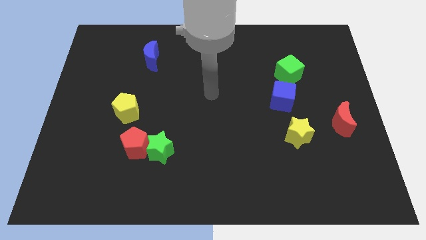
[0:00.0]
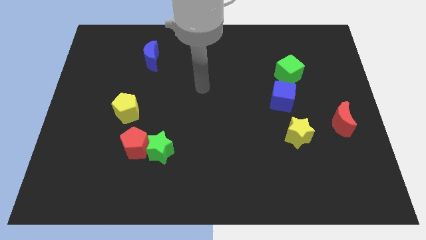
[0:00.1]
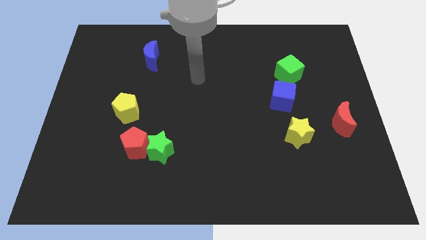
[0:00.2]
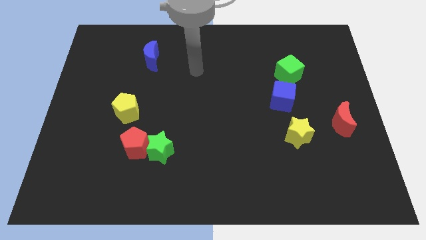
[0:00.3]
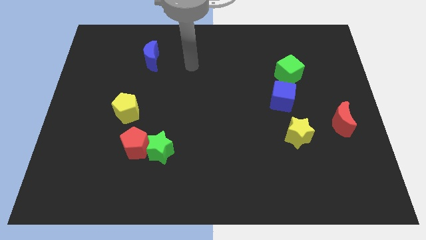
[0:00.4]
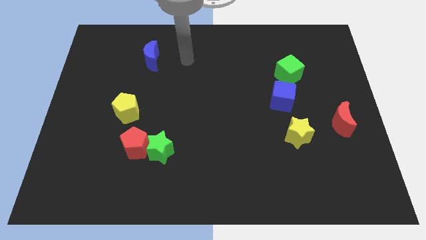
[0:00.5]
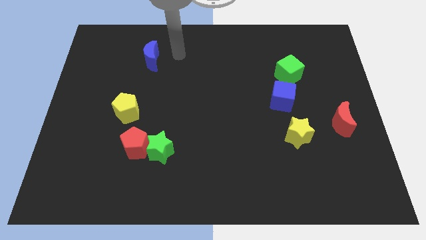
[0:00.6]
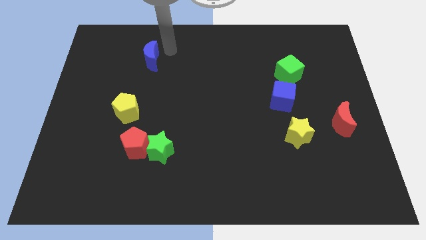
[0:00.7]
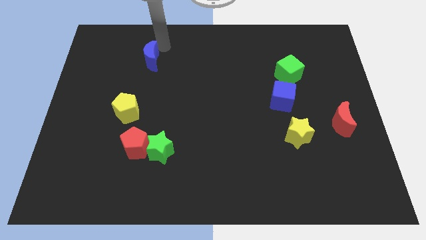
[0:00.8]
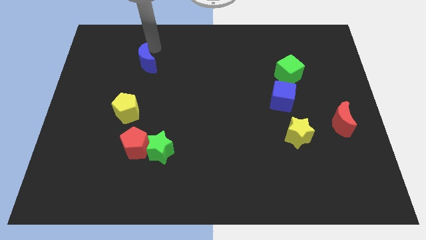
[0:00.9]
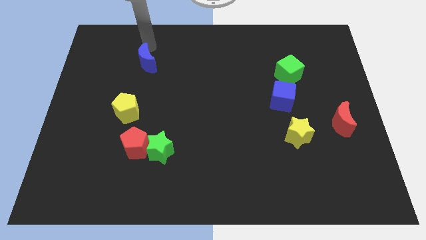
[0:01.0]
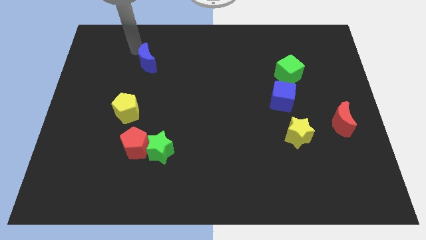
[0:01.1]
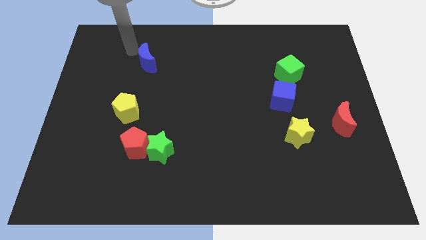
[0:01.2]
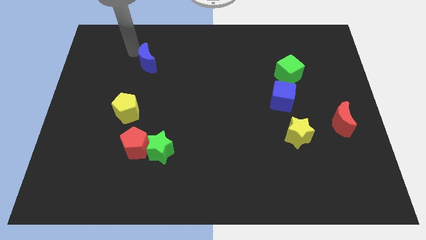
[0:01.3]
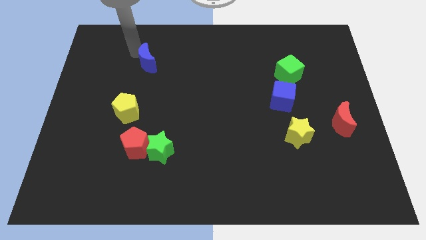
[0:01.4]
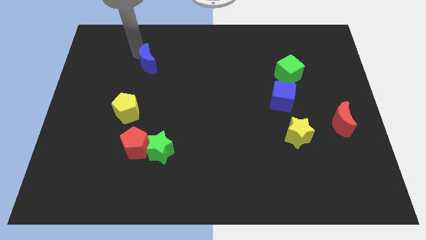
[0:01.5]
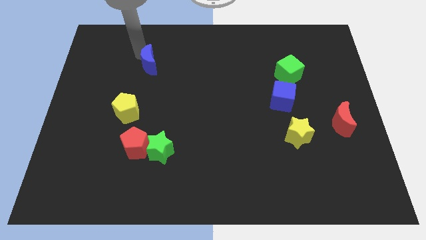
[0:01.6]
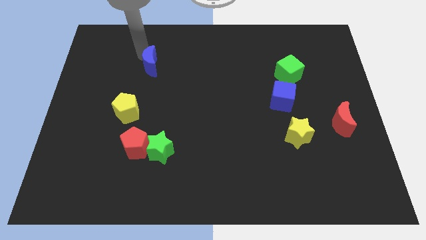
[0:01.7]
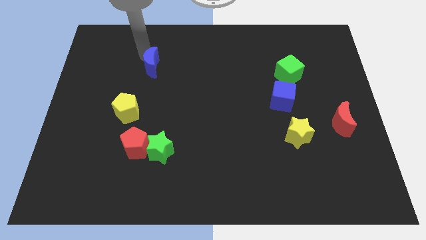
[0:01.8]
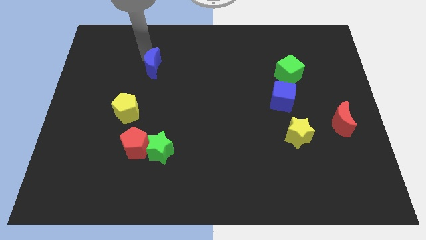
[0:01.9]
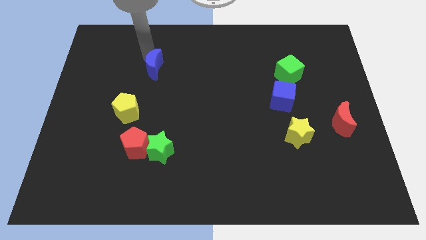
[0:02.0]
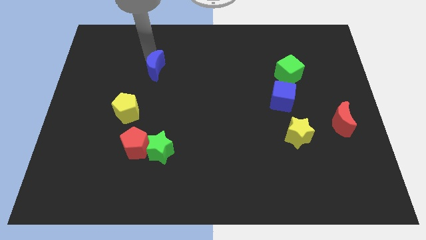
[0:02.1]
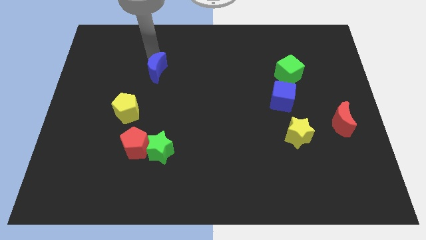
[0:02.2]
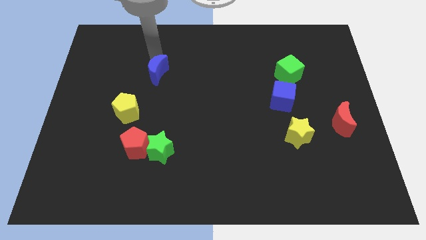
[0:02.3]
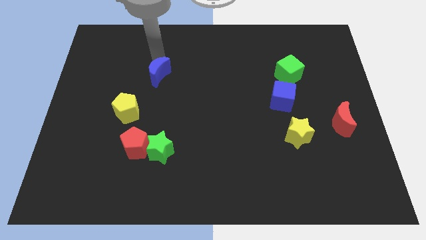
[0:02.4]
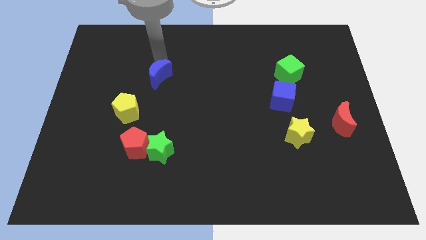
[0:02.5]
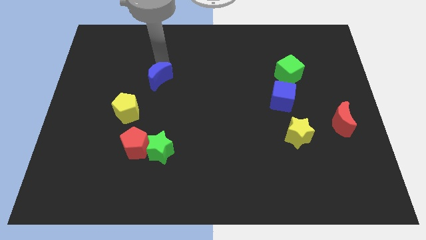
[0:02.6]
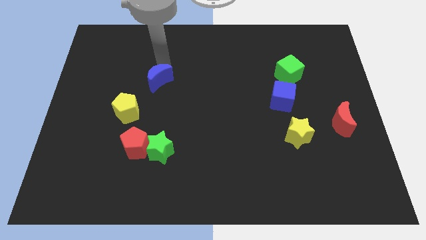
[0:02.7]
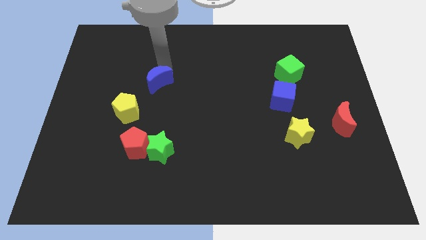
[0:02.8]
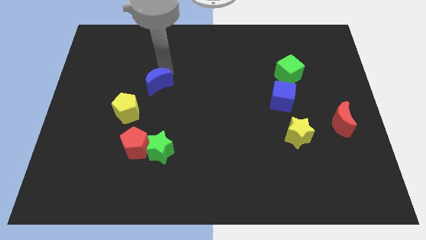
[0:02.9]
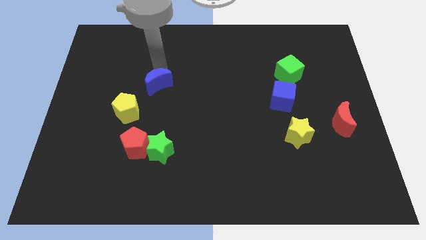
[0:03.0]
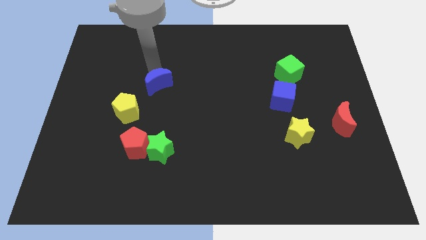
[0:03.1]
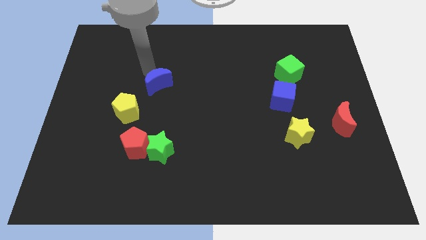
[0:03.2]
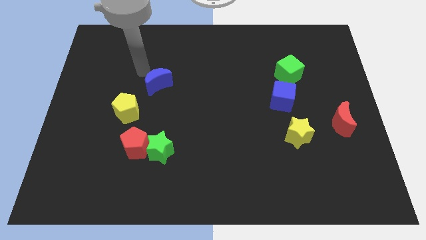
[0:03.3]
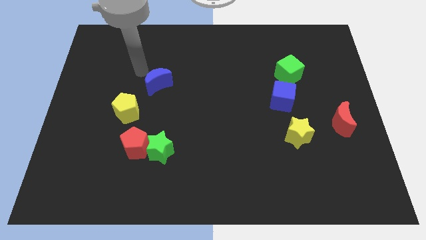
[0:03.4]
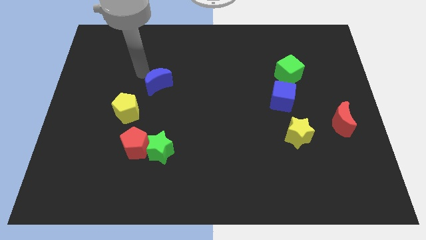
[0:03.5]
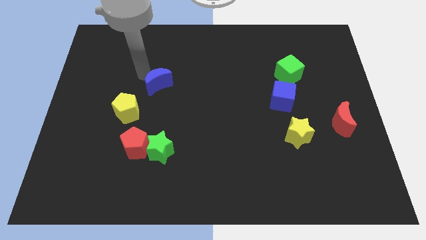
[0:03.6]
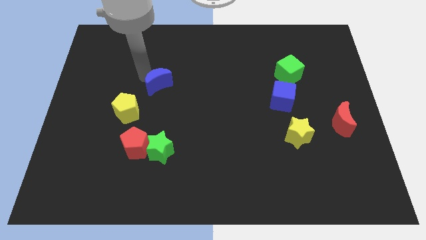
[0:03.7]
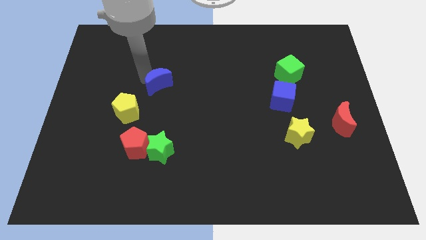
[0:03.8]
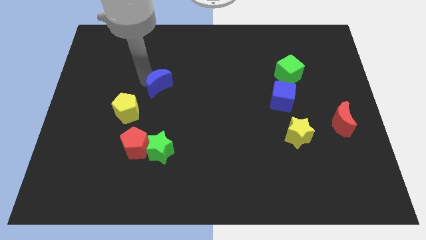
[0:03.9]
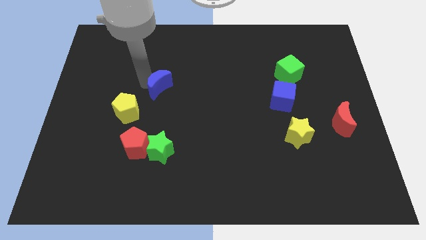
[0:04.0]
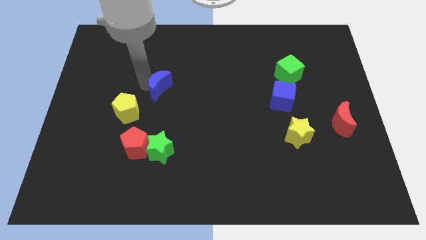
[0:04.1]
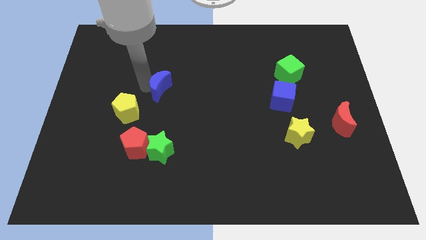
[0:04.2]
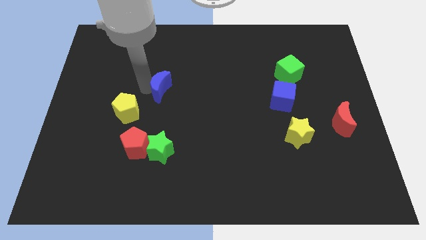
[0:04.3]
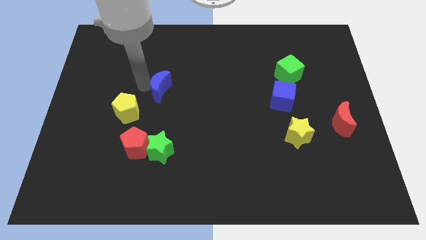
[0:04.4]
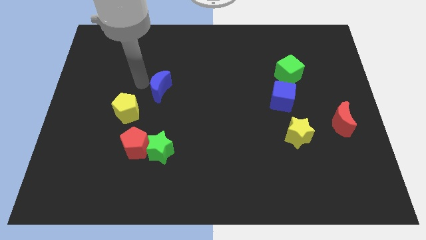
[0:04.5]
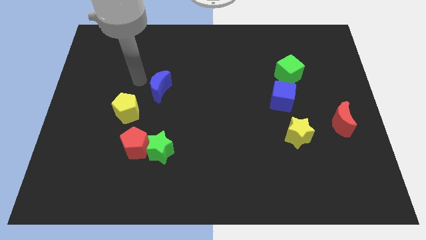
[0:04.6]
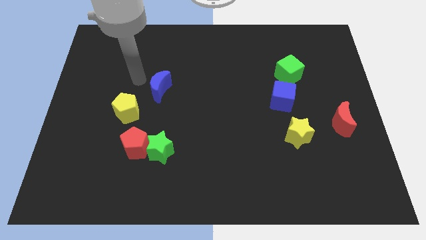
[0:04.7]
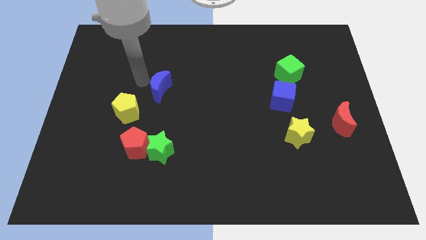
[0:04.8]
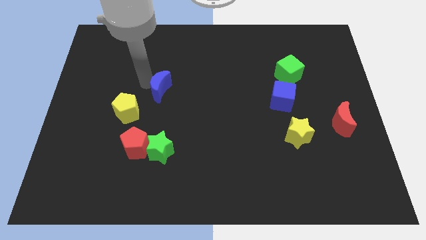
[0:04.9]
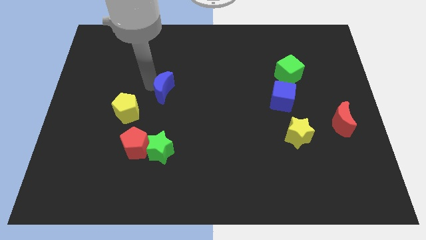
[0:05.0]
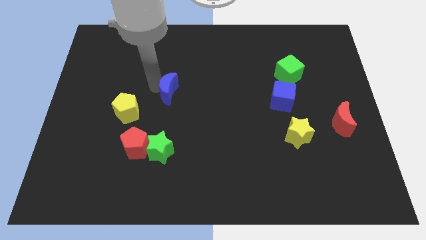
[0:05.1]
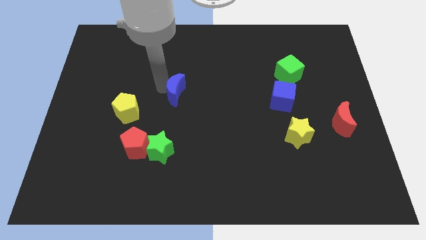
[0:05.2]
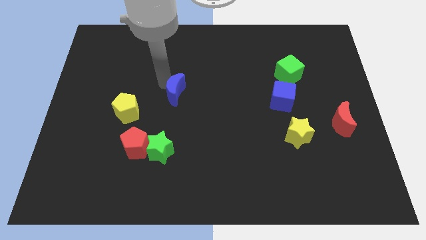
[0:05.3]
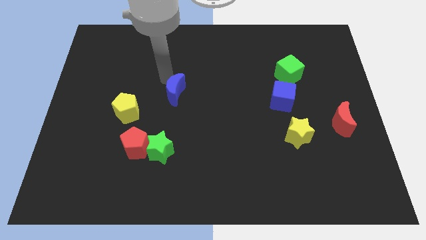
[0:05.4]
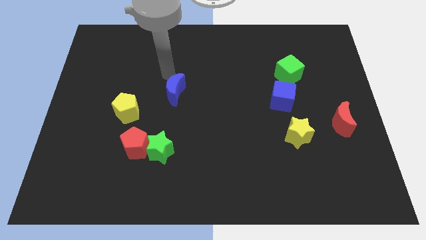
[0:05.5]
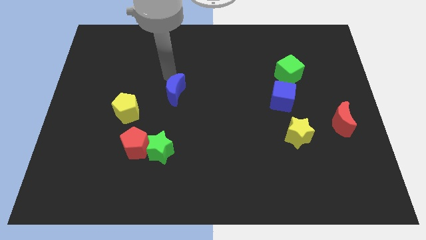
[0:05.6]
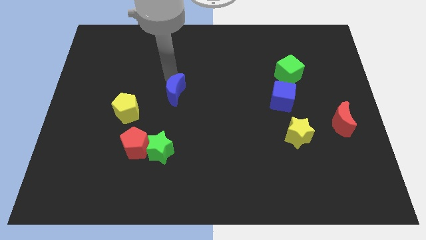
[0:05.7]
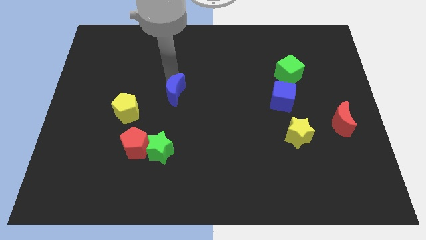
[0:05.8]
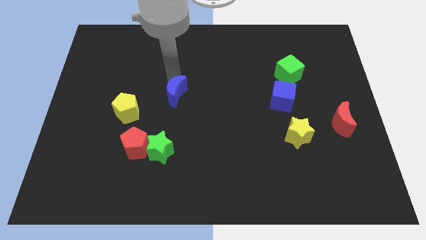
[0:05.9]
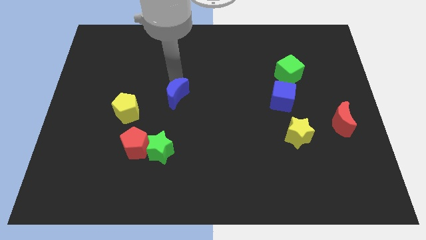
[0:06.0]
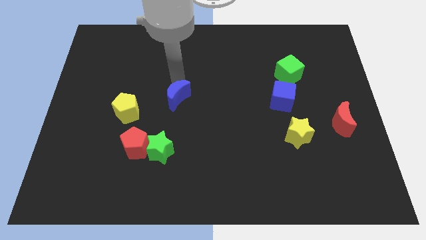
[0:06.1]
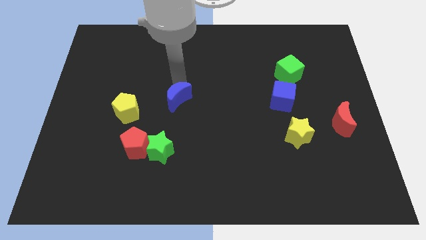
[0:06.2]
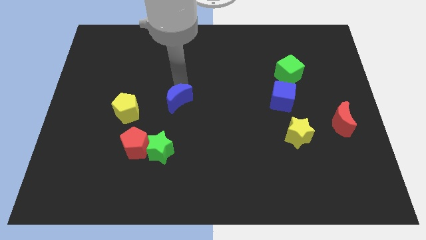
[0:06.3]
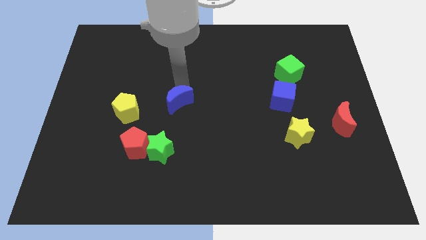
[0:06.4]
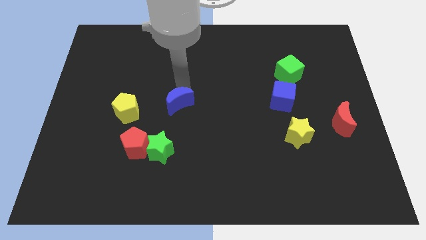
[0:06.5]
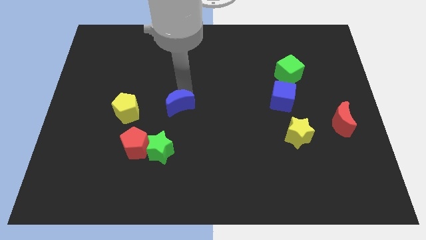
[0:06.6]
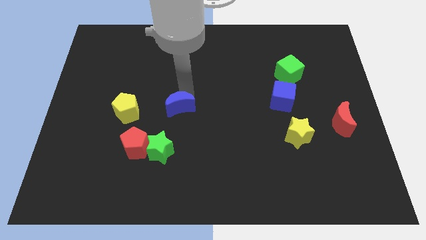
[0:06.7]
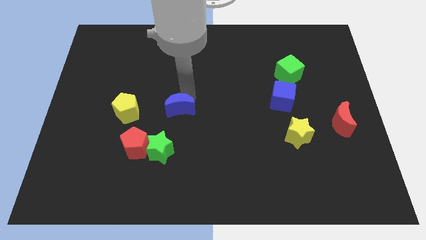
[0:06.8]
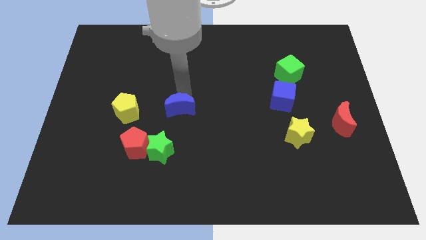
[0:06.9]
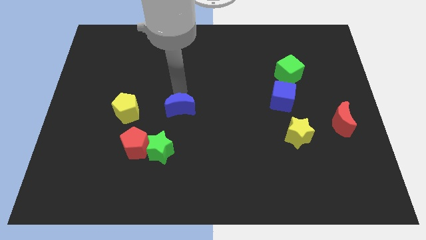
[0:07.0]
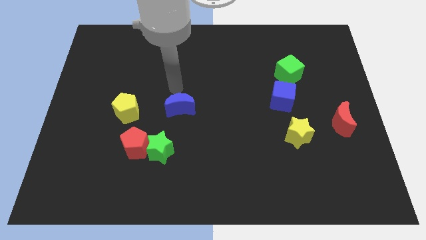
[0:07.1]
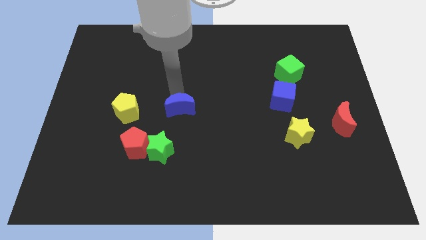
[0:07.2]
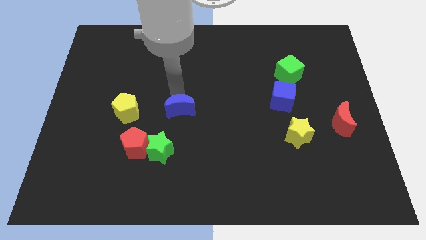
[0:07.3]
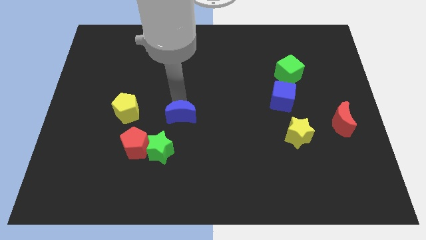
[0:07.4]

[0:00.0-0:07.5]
put the blue moon to the top right side of the green star
